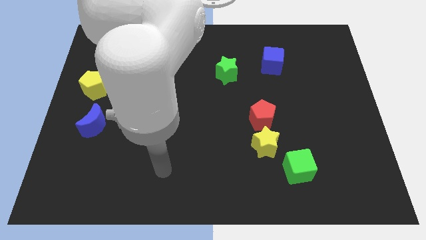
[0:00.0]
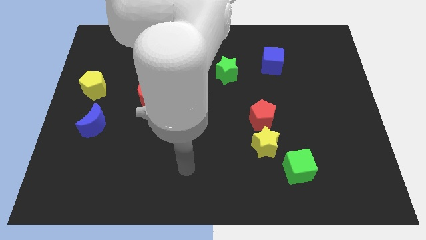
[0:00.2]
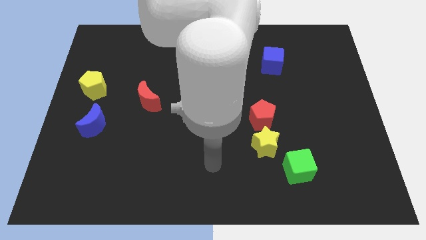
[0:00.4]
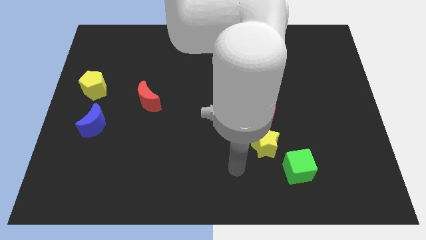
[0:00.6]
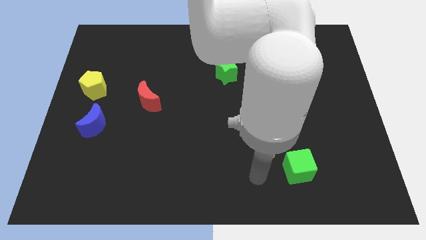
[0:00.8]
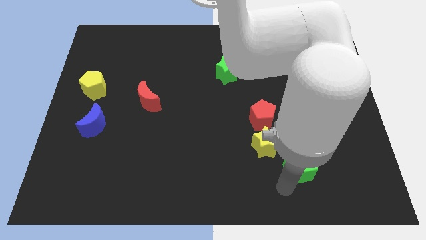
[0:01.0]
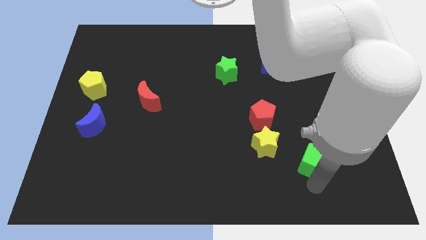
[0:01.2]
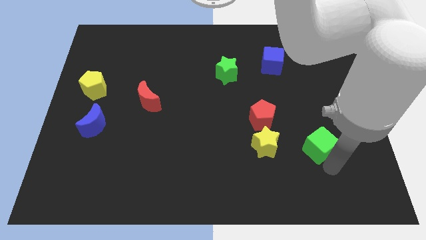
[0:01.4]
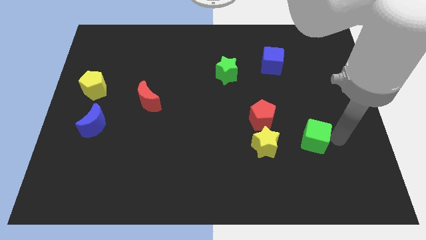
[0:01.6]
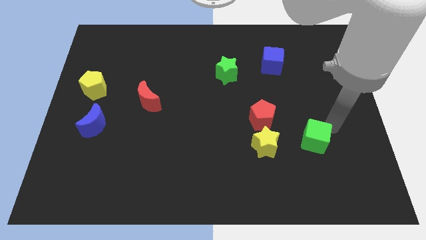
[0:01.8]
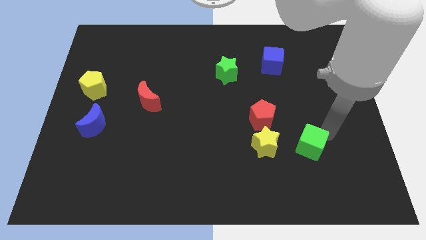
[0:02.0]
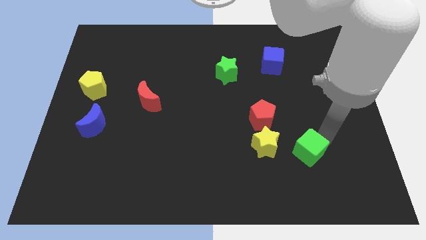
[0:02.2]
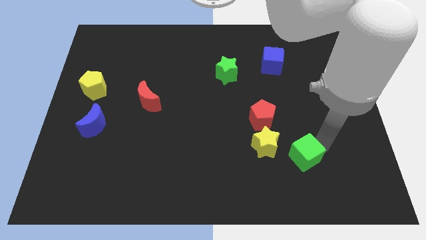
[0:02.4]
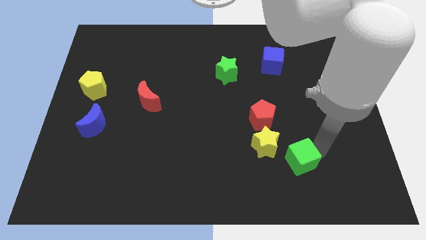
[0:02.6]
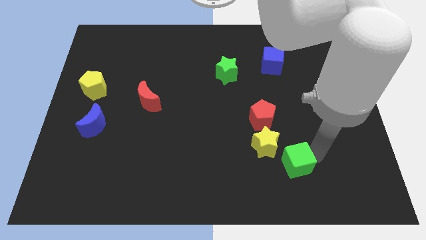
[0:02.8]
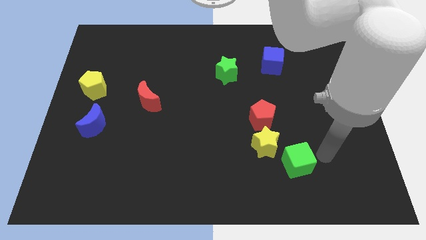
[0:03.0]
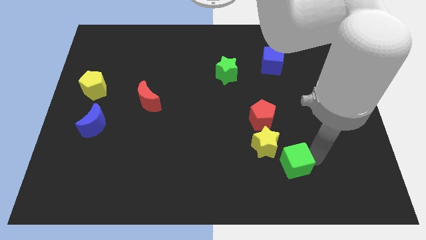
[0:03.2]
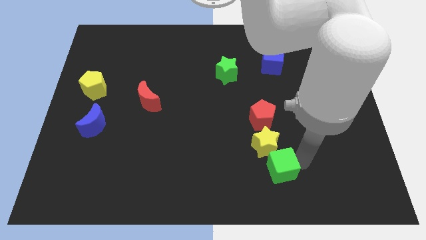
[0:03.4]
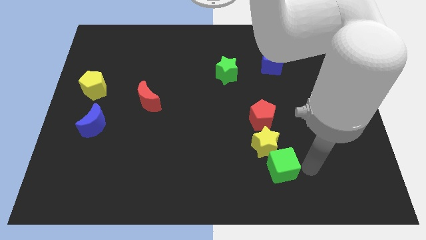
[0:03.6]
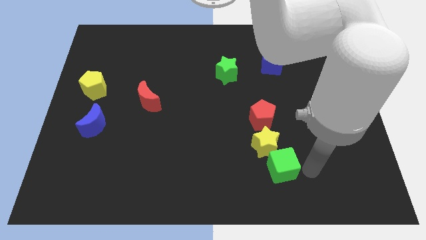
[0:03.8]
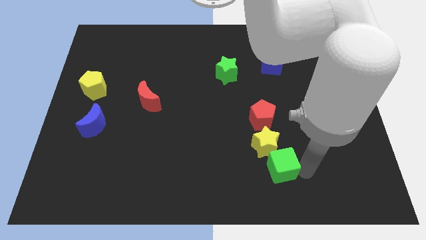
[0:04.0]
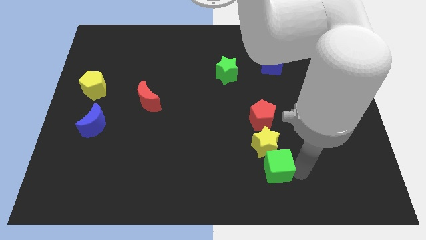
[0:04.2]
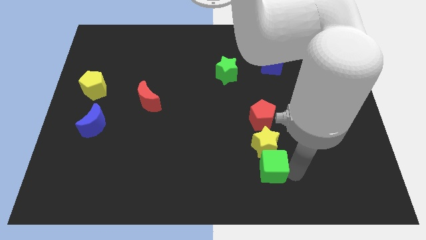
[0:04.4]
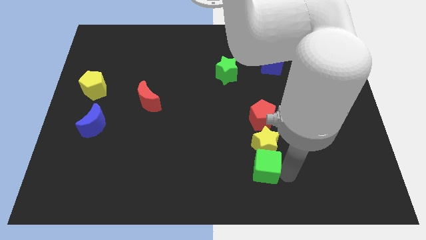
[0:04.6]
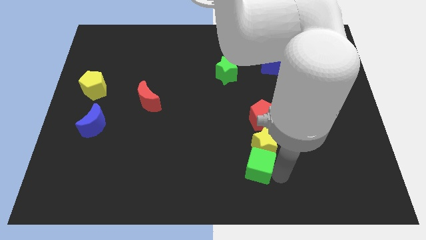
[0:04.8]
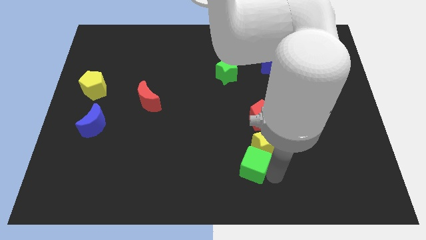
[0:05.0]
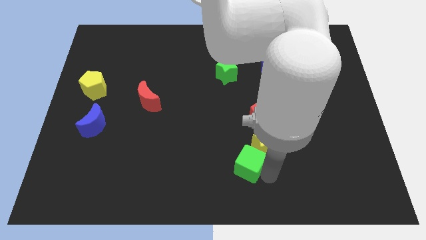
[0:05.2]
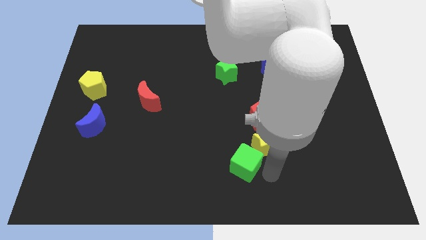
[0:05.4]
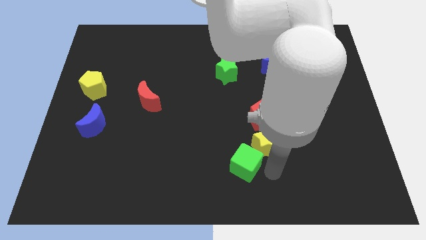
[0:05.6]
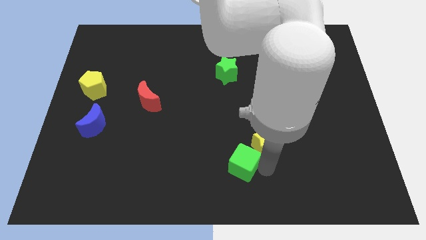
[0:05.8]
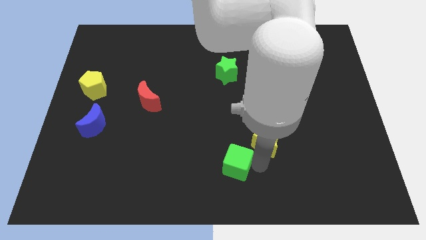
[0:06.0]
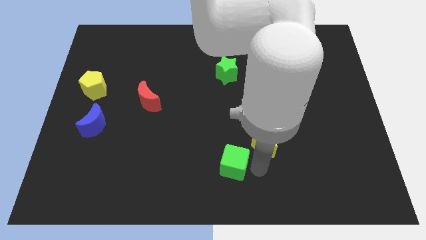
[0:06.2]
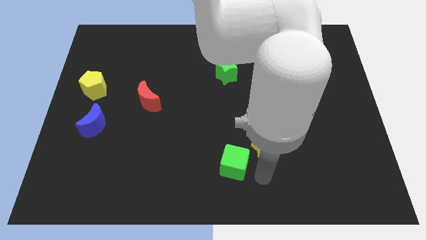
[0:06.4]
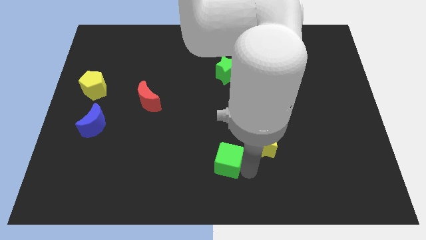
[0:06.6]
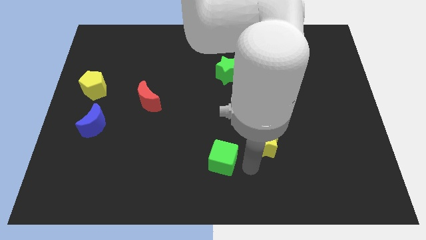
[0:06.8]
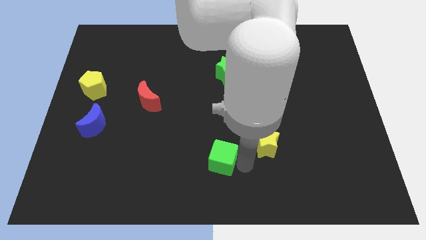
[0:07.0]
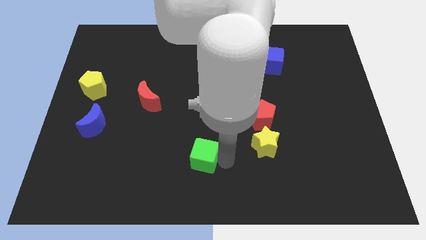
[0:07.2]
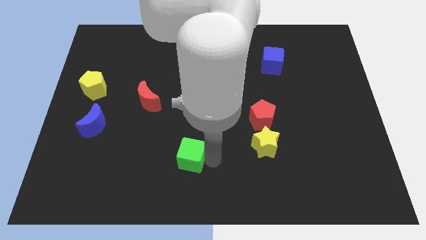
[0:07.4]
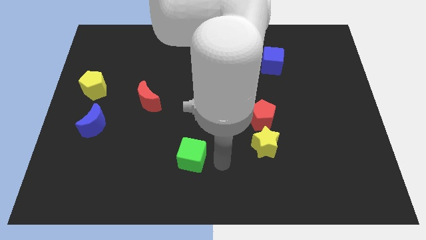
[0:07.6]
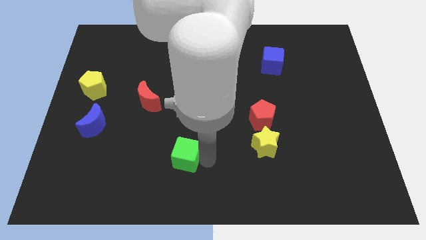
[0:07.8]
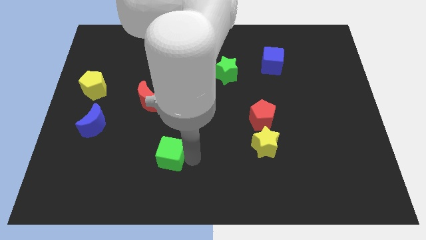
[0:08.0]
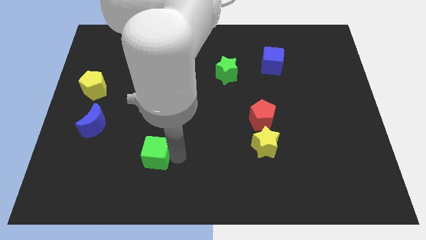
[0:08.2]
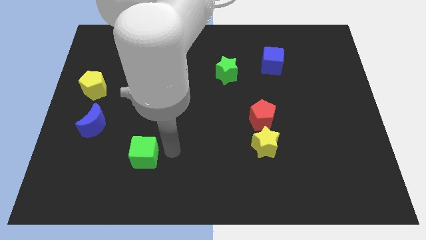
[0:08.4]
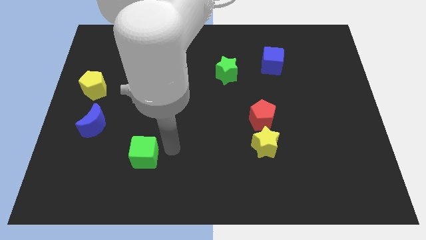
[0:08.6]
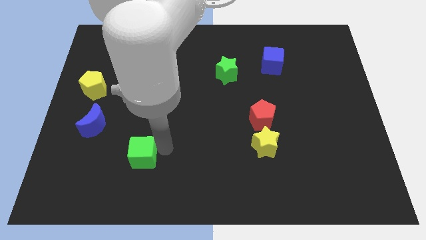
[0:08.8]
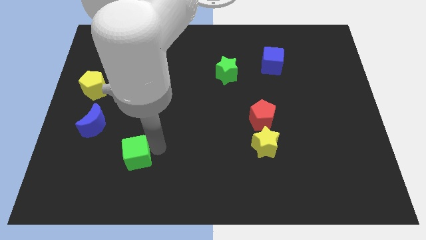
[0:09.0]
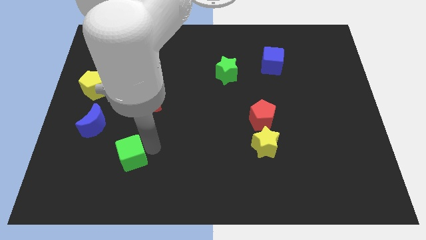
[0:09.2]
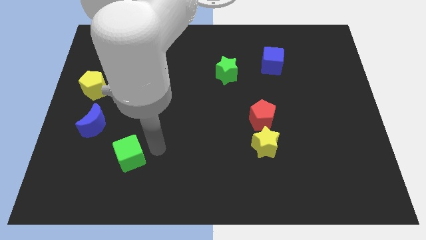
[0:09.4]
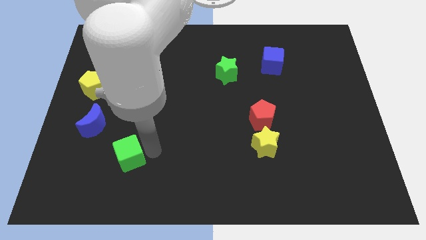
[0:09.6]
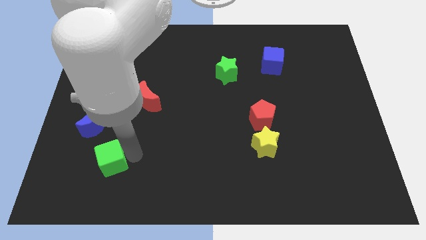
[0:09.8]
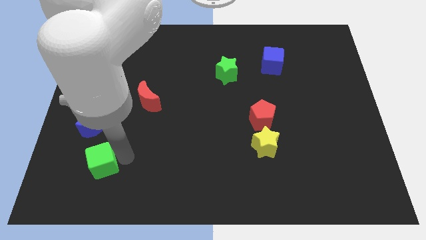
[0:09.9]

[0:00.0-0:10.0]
push the green cube below the blue moon

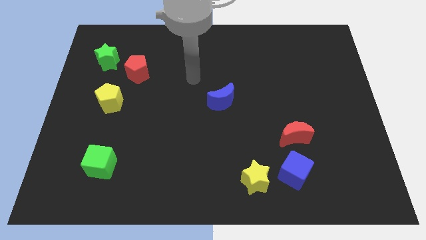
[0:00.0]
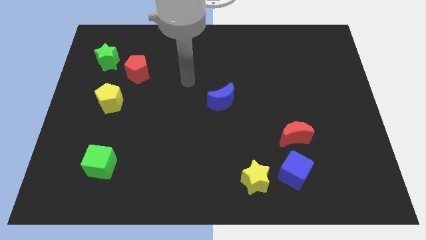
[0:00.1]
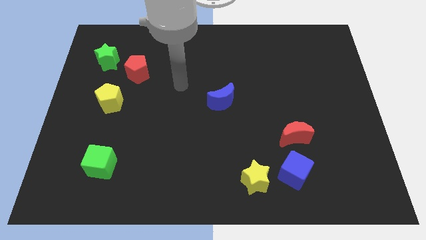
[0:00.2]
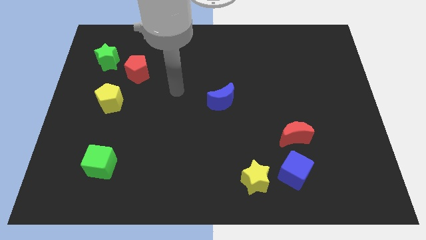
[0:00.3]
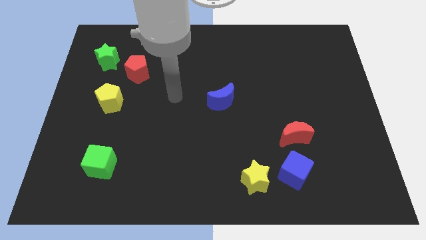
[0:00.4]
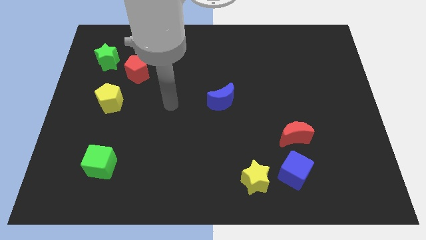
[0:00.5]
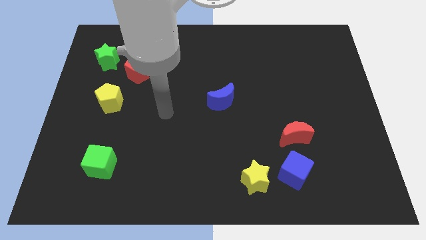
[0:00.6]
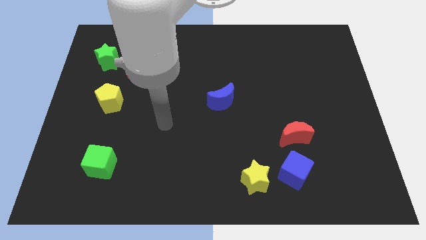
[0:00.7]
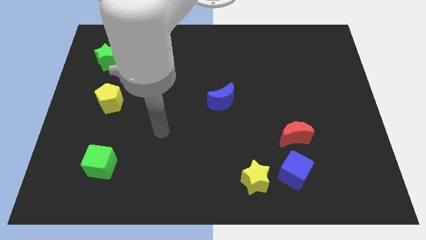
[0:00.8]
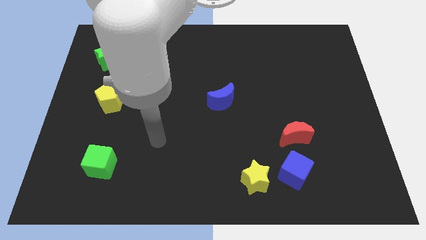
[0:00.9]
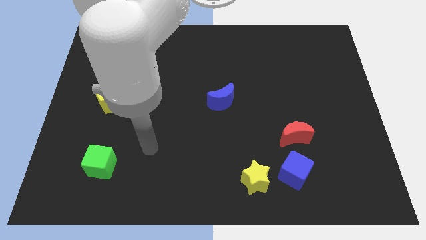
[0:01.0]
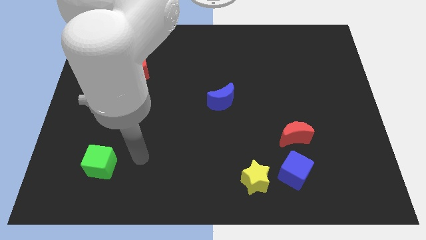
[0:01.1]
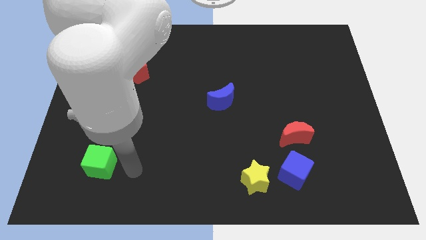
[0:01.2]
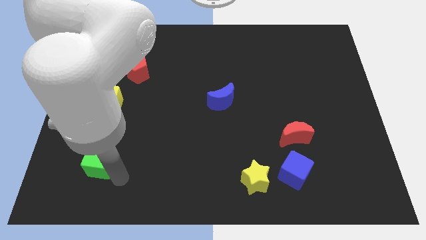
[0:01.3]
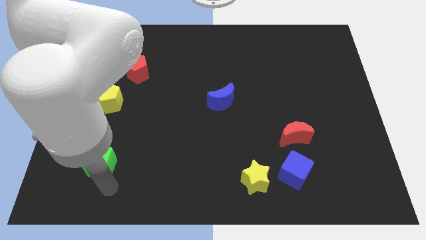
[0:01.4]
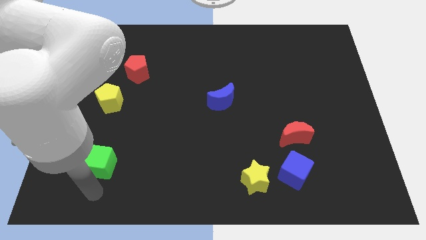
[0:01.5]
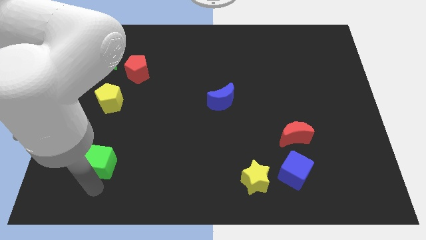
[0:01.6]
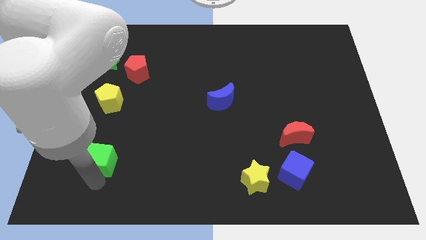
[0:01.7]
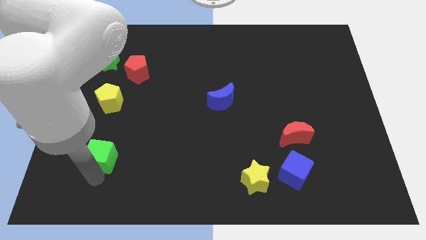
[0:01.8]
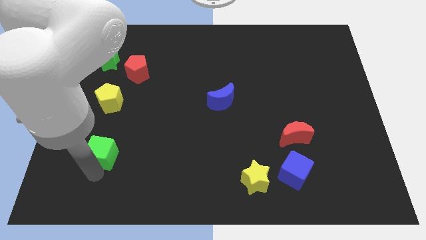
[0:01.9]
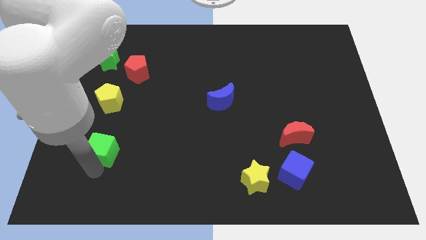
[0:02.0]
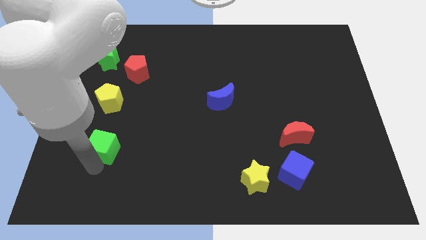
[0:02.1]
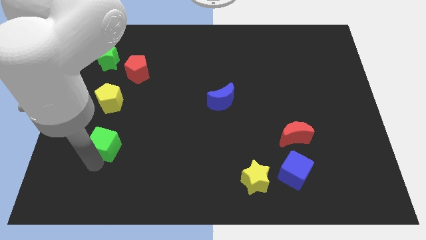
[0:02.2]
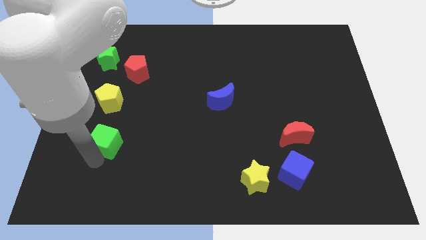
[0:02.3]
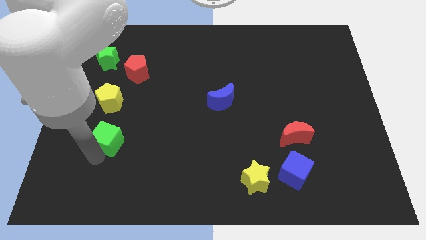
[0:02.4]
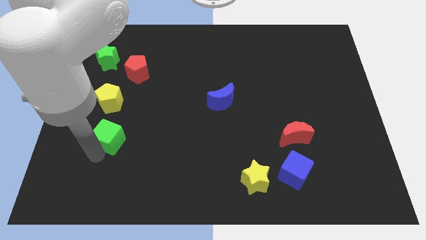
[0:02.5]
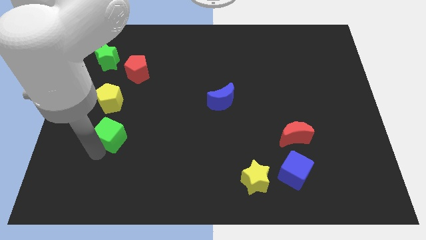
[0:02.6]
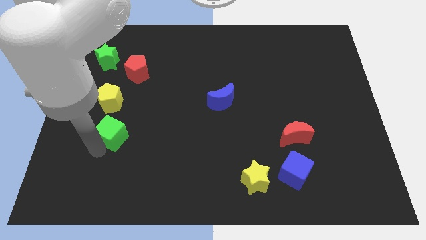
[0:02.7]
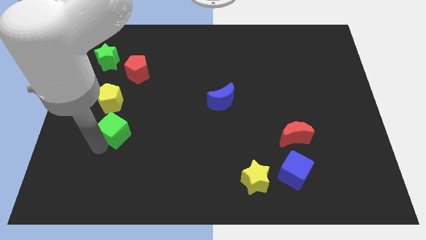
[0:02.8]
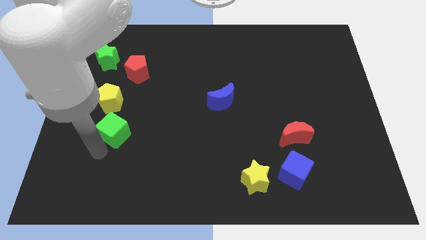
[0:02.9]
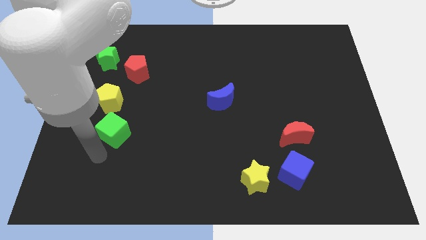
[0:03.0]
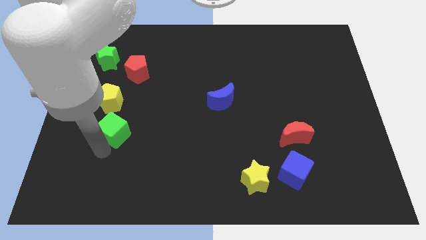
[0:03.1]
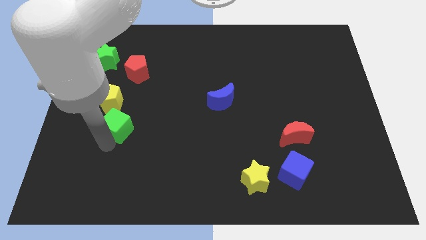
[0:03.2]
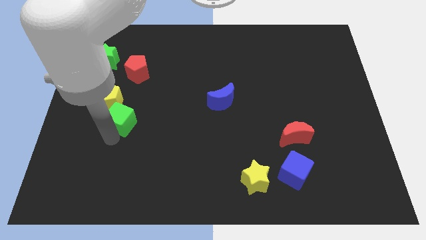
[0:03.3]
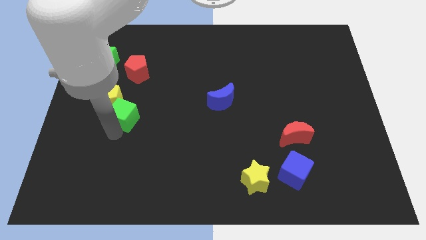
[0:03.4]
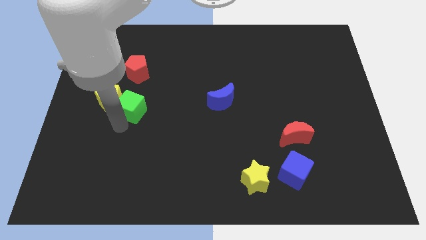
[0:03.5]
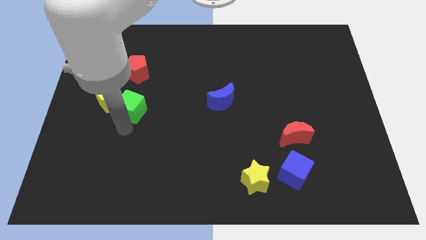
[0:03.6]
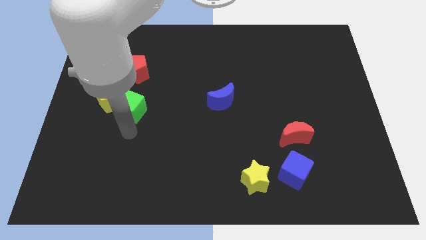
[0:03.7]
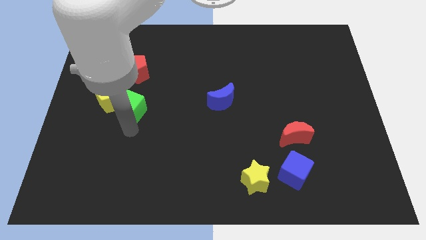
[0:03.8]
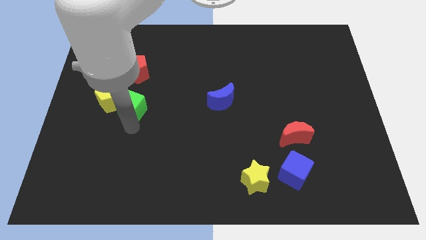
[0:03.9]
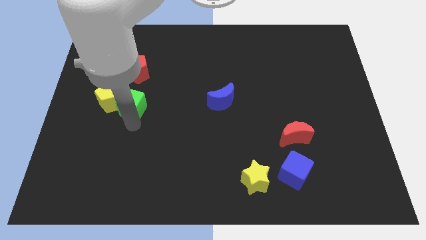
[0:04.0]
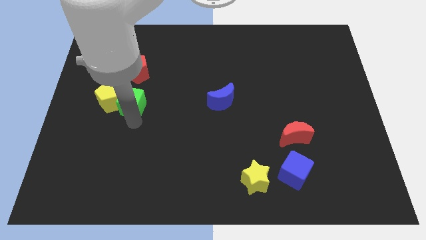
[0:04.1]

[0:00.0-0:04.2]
move the green cube diagonally up and to the right of the yellow pentagon
